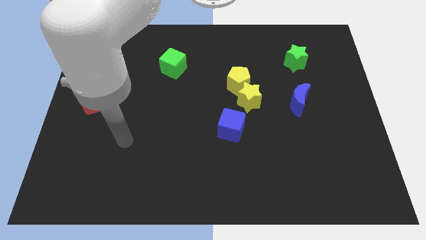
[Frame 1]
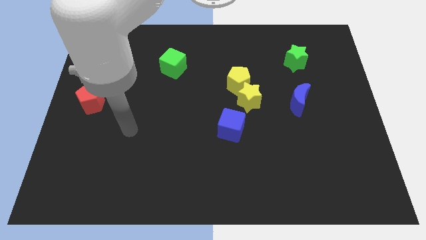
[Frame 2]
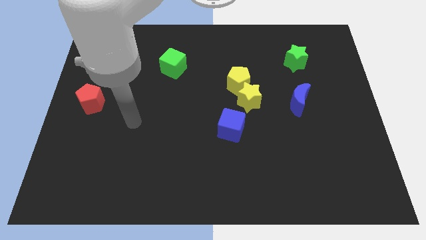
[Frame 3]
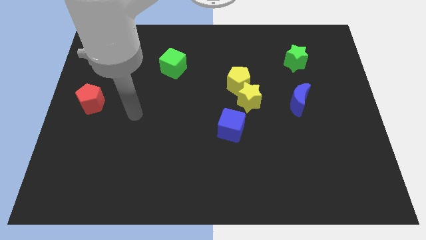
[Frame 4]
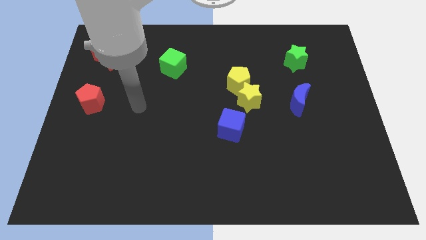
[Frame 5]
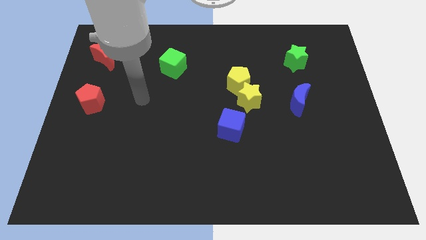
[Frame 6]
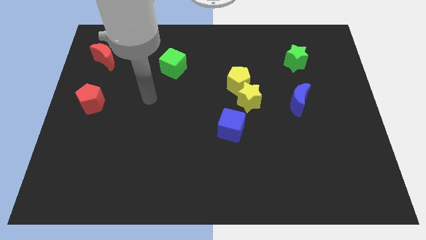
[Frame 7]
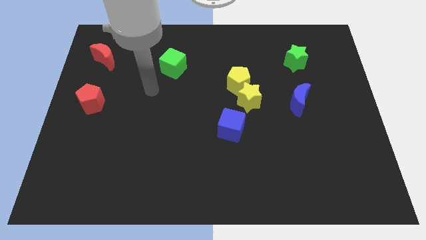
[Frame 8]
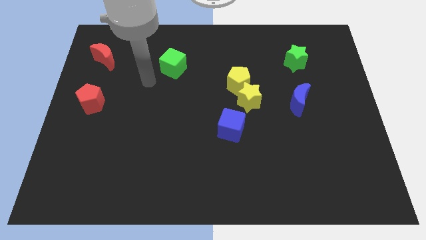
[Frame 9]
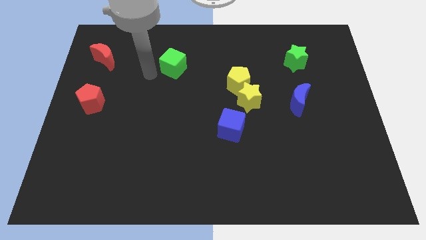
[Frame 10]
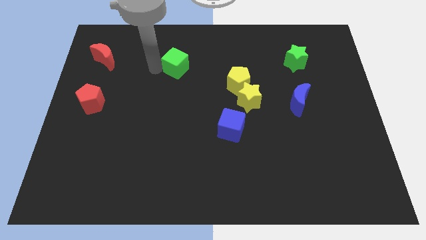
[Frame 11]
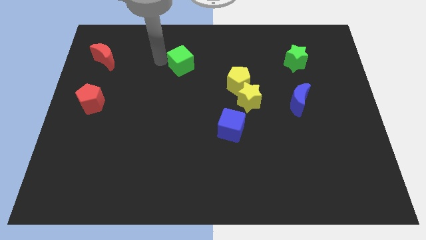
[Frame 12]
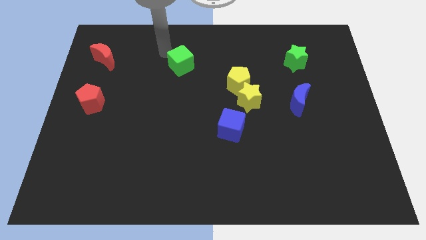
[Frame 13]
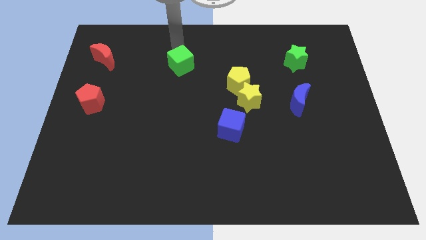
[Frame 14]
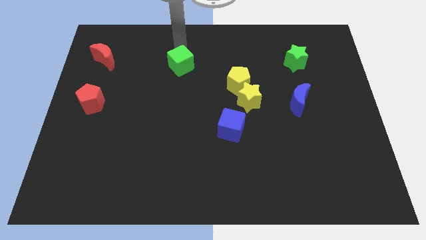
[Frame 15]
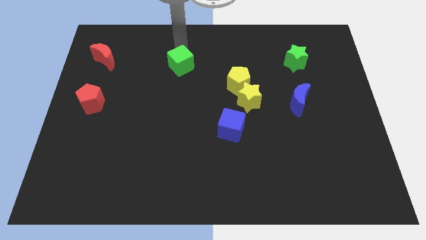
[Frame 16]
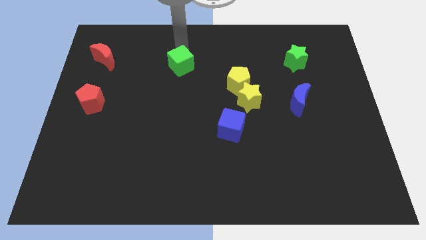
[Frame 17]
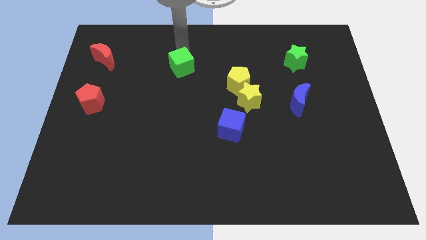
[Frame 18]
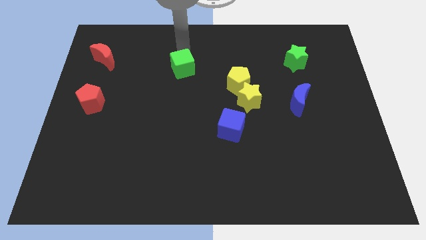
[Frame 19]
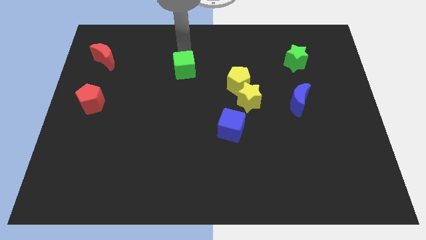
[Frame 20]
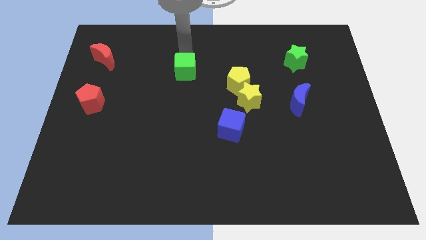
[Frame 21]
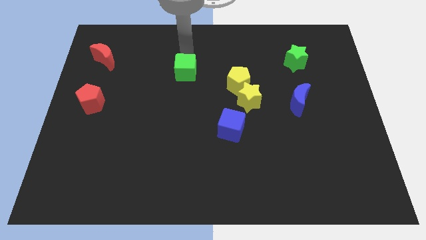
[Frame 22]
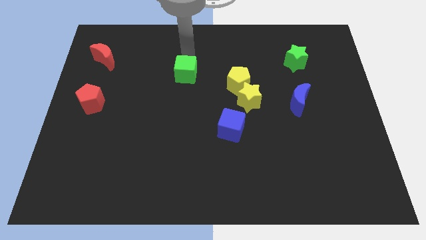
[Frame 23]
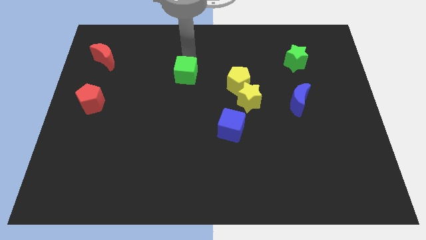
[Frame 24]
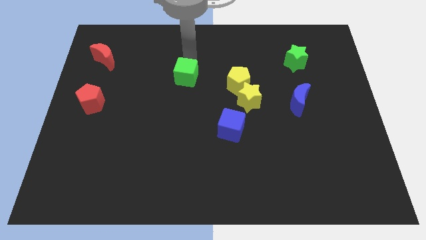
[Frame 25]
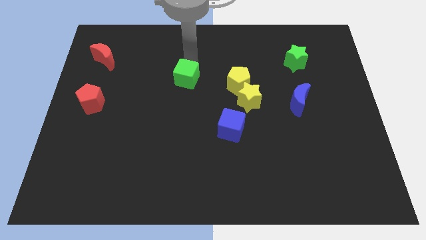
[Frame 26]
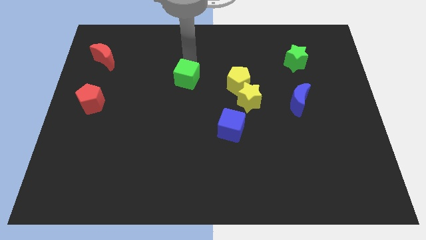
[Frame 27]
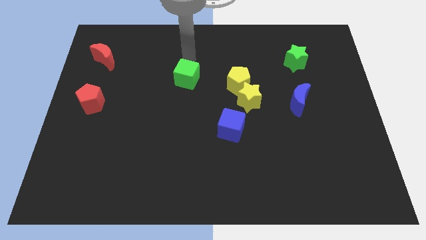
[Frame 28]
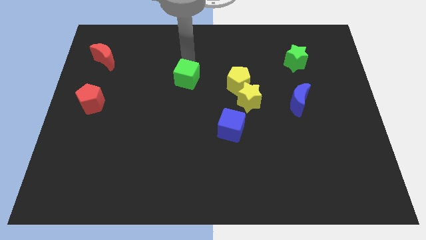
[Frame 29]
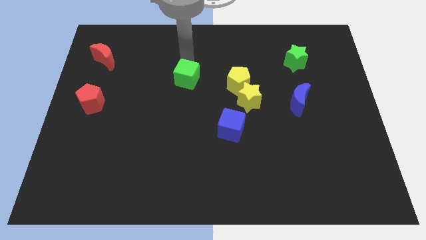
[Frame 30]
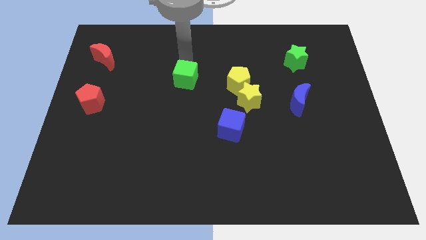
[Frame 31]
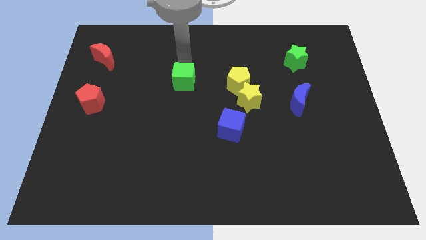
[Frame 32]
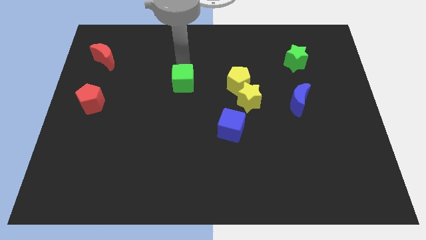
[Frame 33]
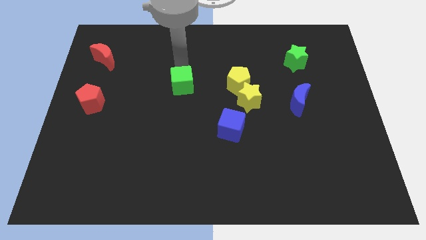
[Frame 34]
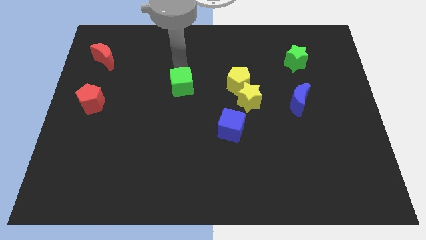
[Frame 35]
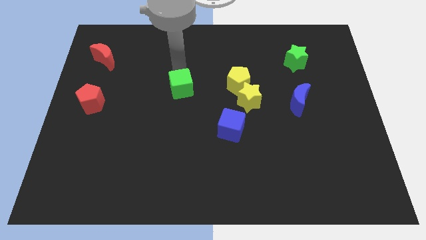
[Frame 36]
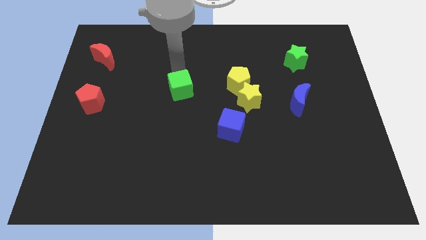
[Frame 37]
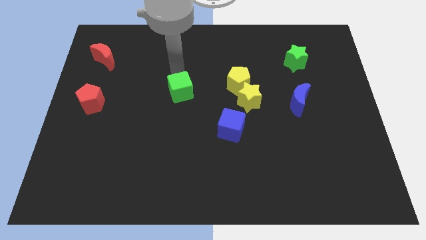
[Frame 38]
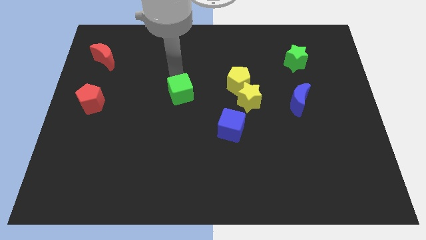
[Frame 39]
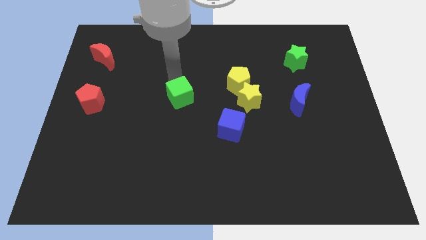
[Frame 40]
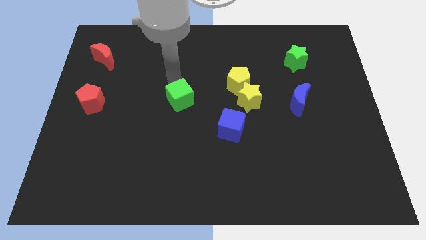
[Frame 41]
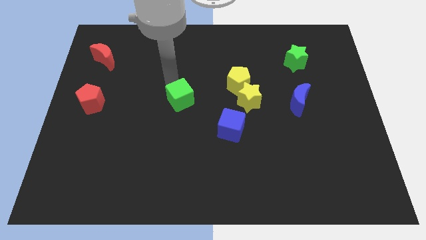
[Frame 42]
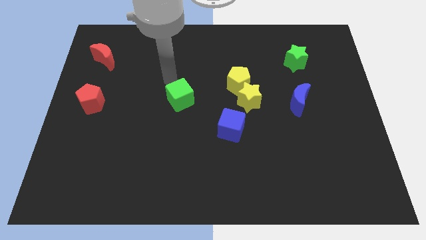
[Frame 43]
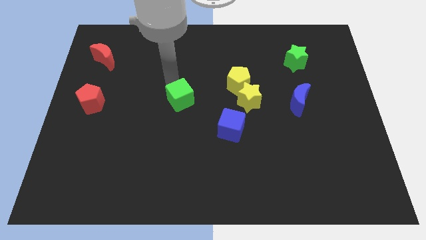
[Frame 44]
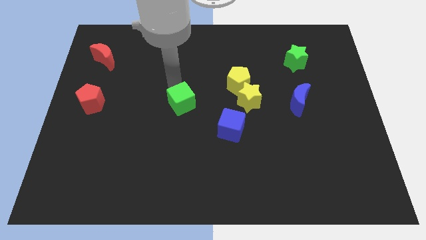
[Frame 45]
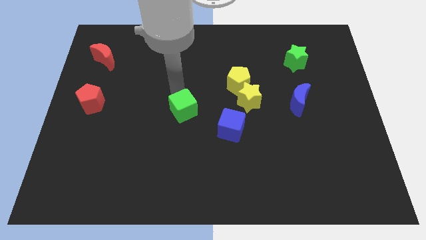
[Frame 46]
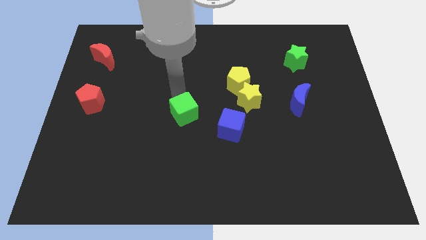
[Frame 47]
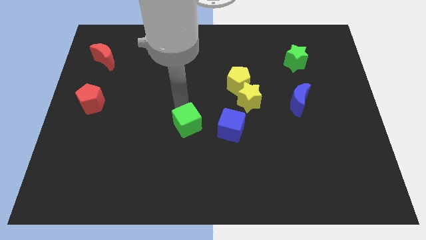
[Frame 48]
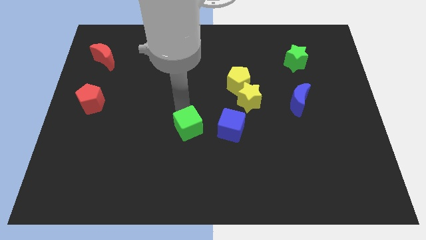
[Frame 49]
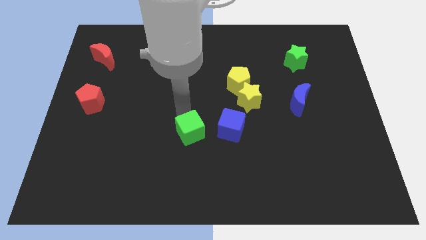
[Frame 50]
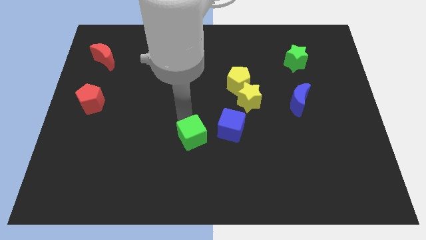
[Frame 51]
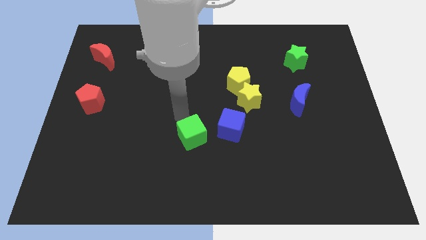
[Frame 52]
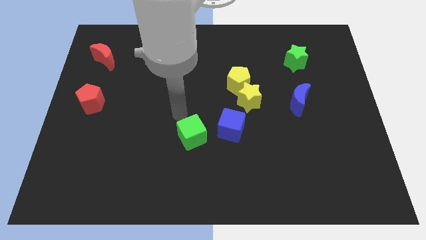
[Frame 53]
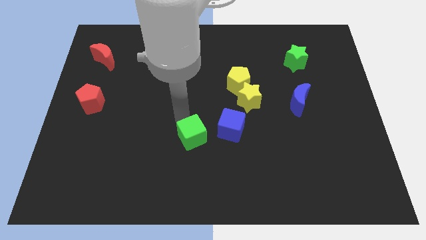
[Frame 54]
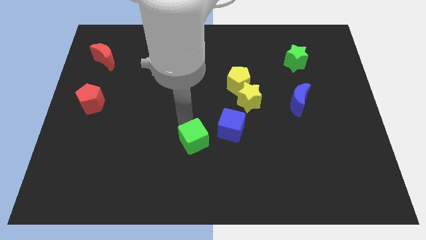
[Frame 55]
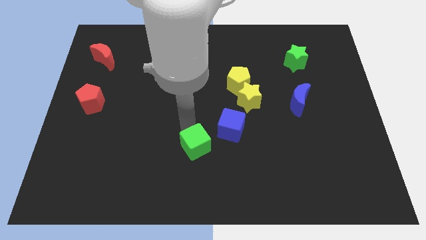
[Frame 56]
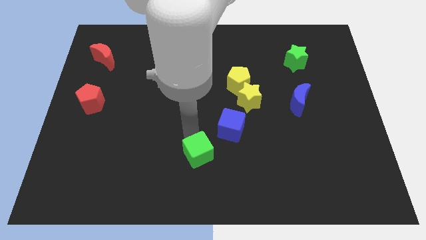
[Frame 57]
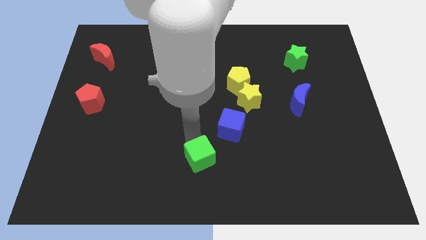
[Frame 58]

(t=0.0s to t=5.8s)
put the green cube to the bottom

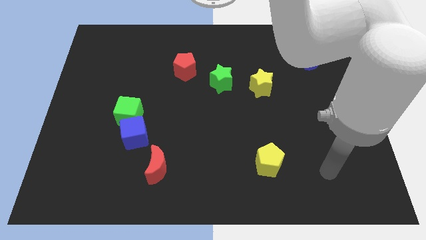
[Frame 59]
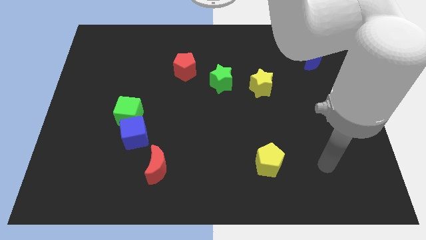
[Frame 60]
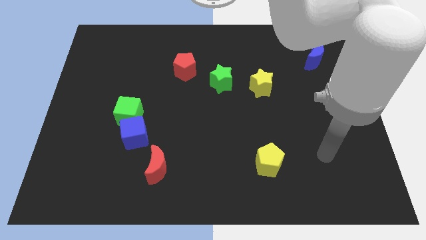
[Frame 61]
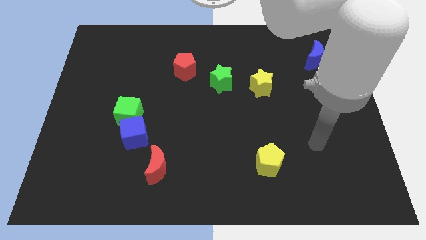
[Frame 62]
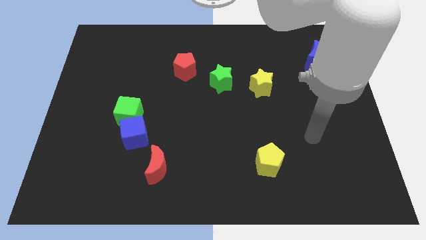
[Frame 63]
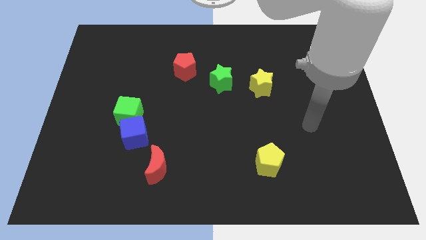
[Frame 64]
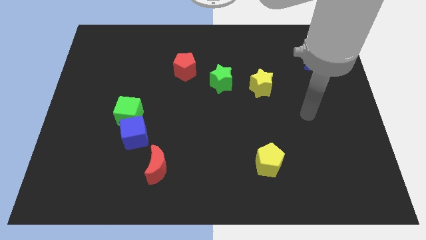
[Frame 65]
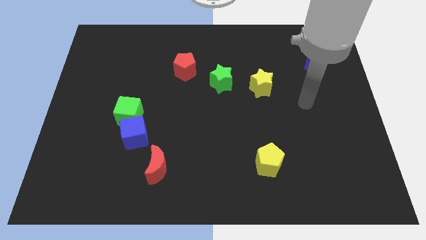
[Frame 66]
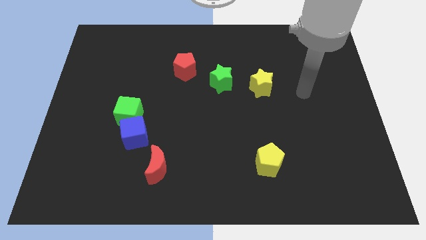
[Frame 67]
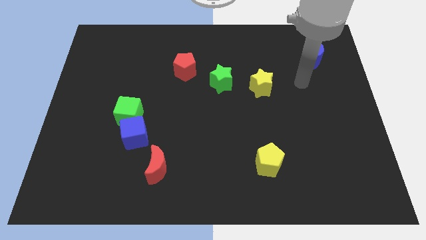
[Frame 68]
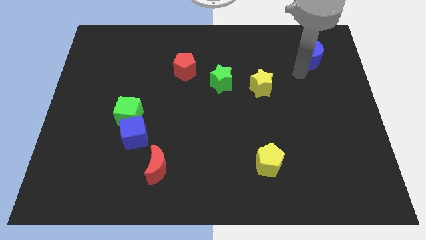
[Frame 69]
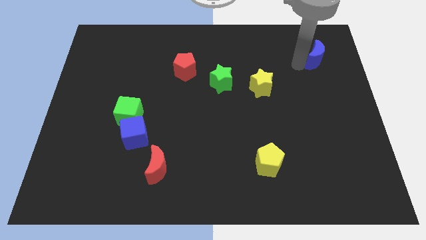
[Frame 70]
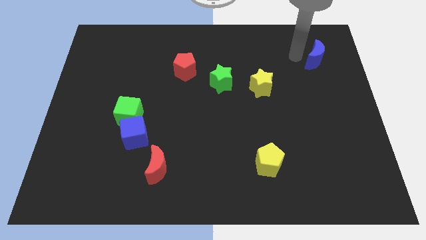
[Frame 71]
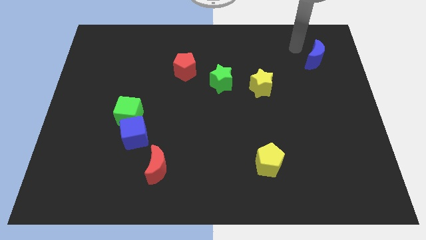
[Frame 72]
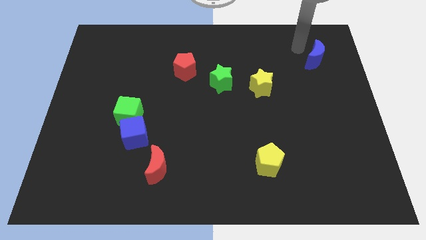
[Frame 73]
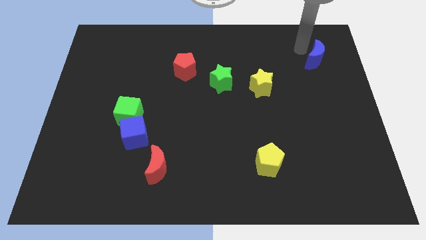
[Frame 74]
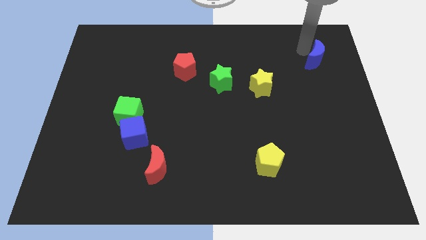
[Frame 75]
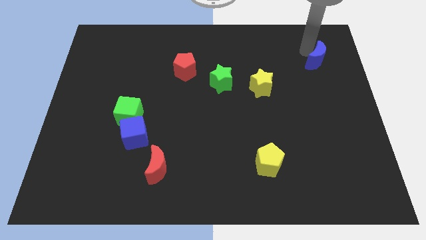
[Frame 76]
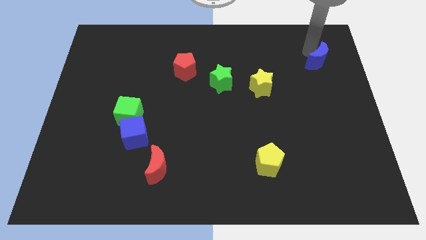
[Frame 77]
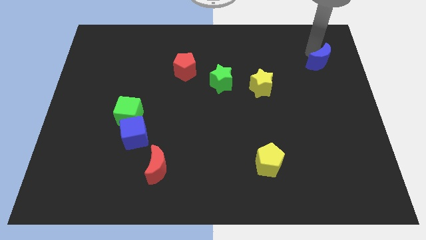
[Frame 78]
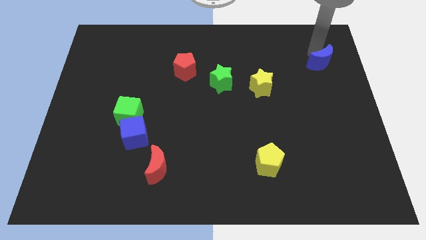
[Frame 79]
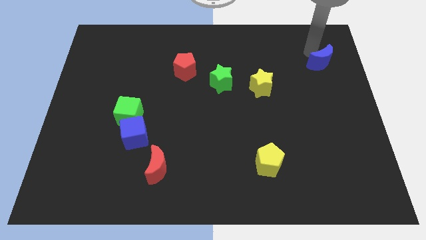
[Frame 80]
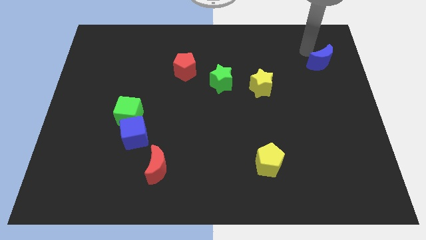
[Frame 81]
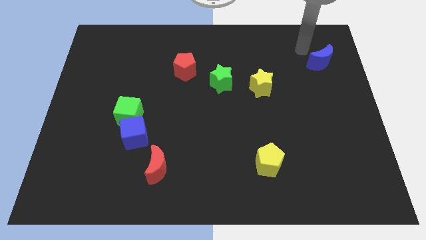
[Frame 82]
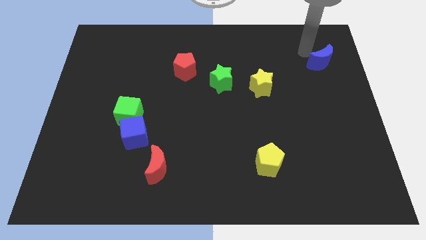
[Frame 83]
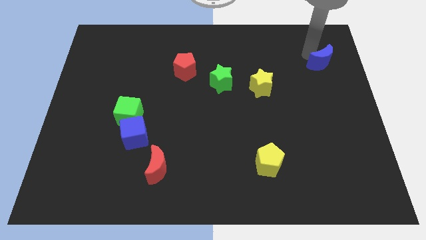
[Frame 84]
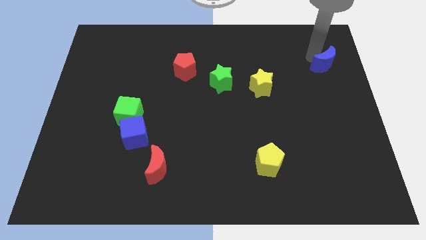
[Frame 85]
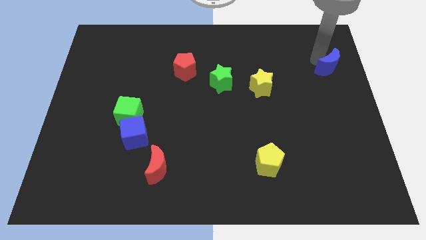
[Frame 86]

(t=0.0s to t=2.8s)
slide the blue moon to the right side of the board
